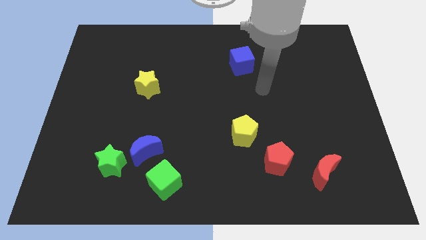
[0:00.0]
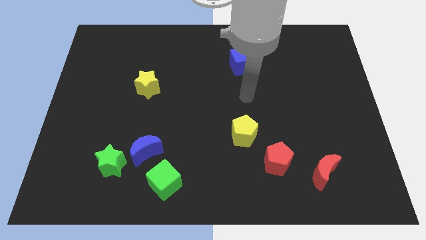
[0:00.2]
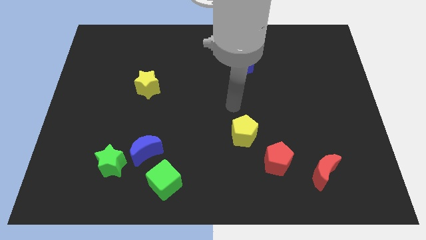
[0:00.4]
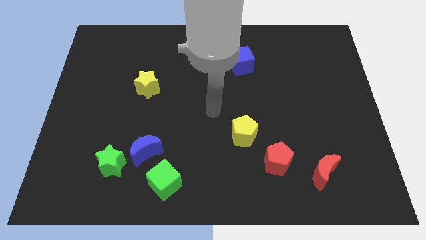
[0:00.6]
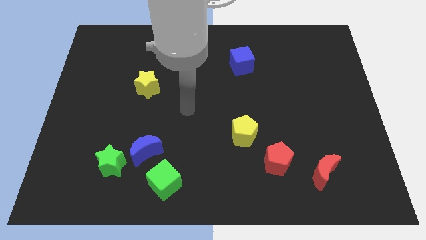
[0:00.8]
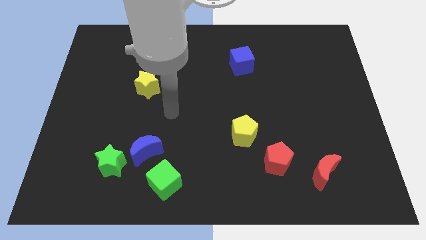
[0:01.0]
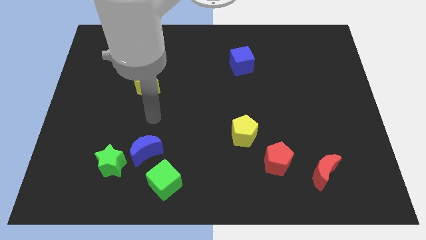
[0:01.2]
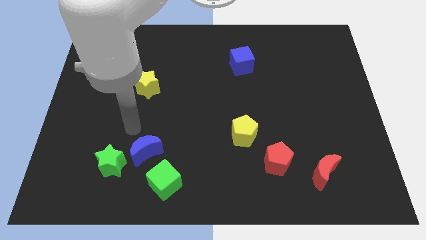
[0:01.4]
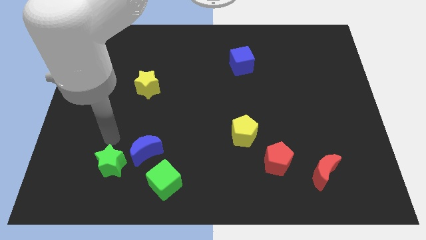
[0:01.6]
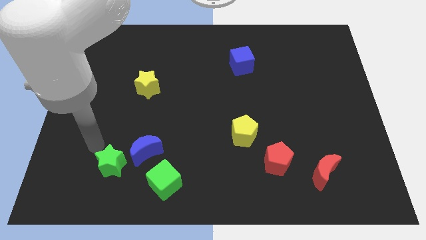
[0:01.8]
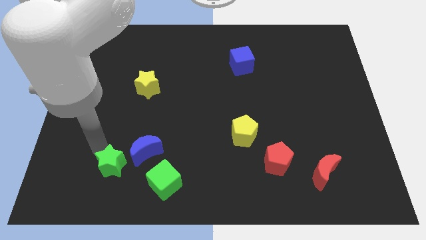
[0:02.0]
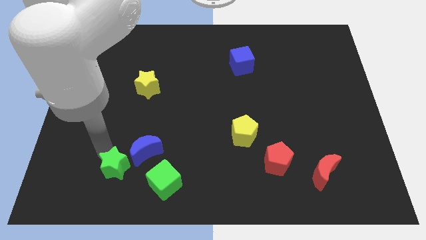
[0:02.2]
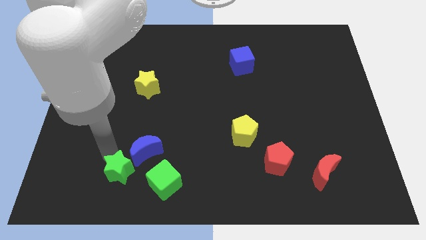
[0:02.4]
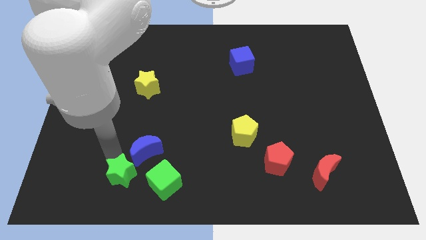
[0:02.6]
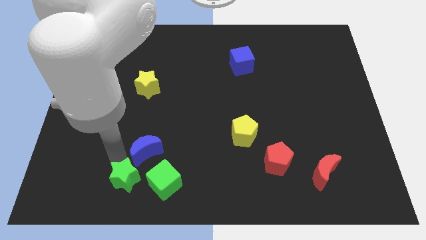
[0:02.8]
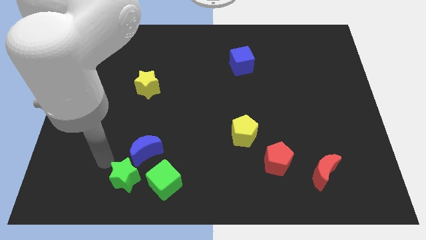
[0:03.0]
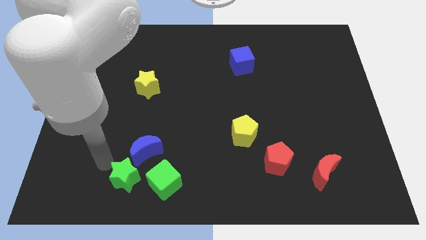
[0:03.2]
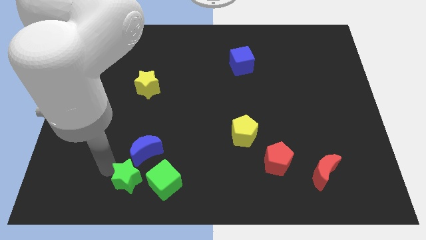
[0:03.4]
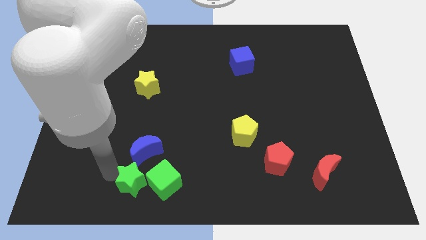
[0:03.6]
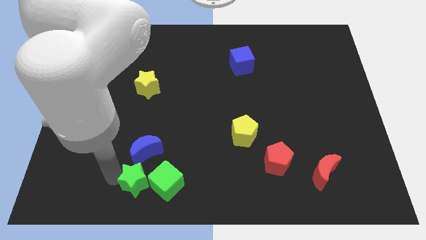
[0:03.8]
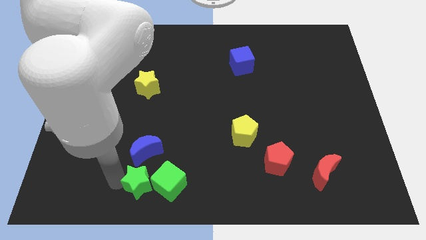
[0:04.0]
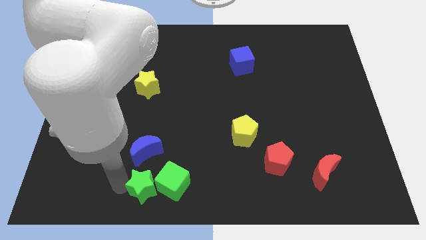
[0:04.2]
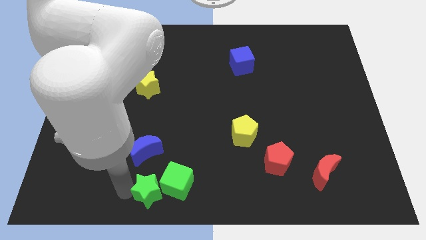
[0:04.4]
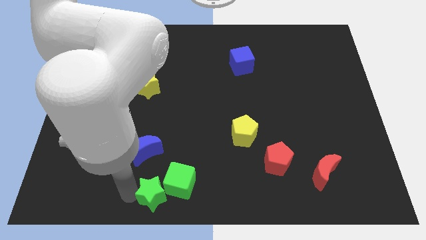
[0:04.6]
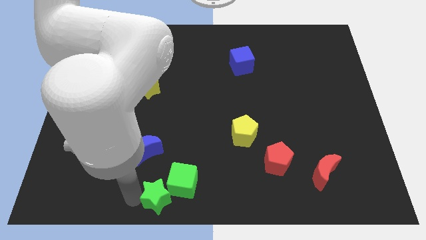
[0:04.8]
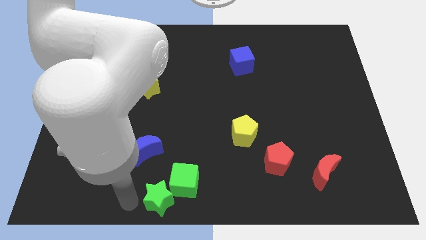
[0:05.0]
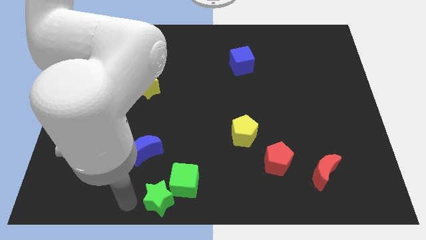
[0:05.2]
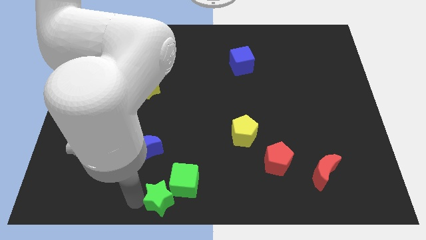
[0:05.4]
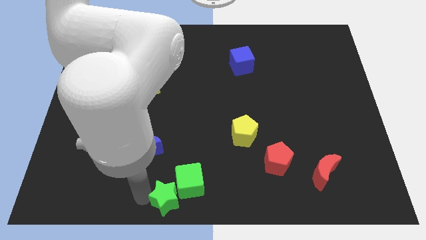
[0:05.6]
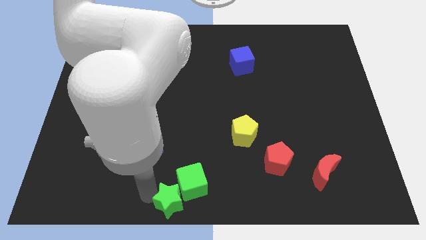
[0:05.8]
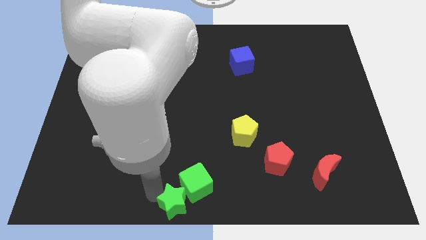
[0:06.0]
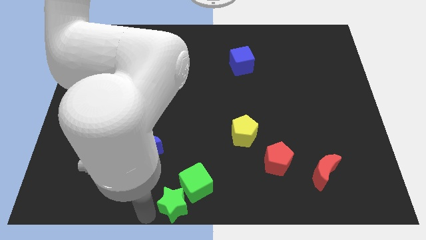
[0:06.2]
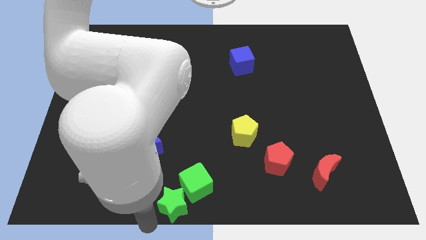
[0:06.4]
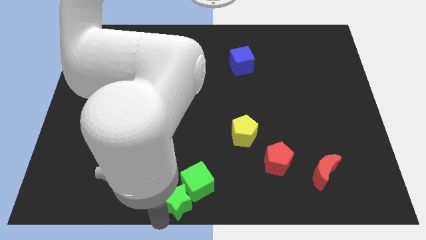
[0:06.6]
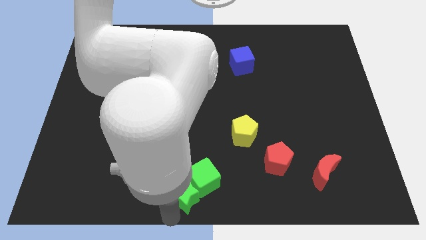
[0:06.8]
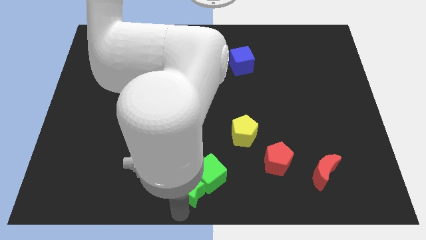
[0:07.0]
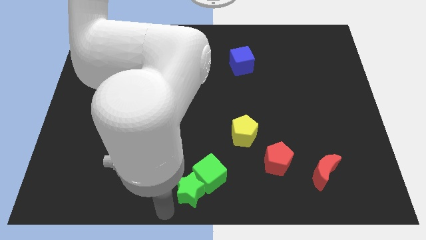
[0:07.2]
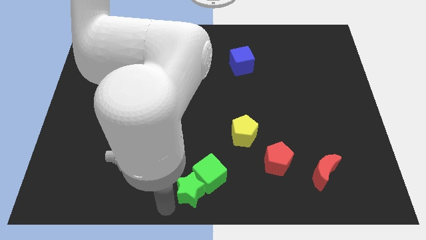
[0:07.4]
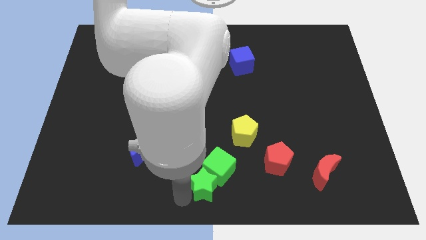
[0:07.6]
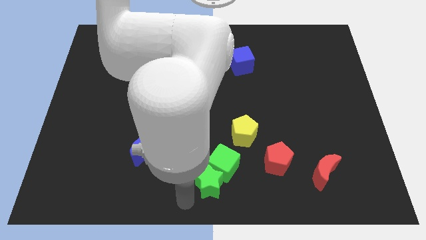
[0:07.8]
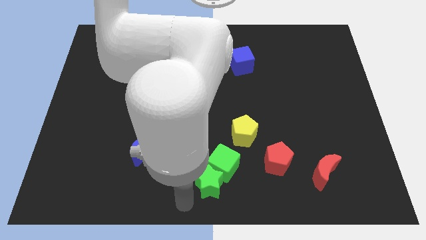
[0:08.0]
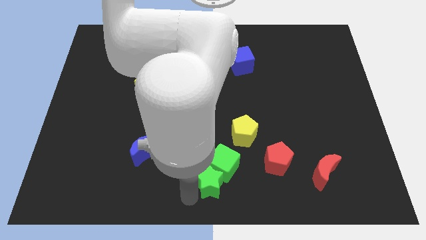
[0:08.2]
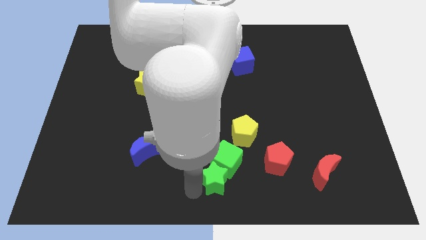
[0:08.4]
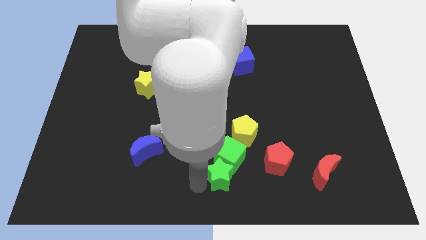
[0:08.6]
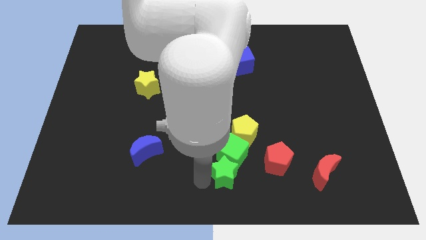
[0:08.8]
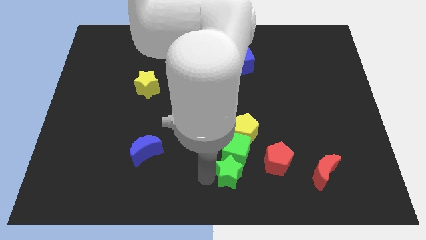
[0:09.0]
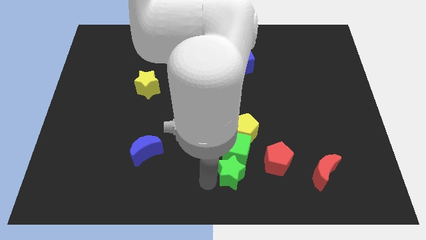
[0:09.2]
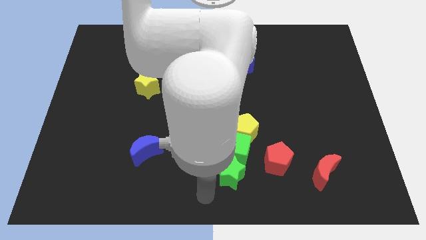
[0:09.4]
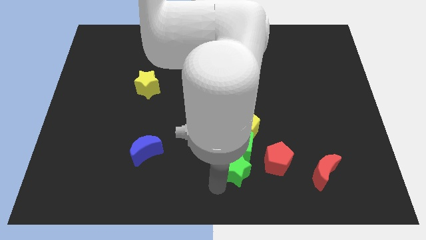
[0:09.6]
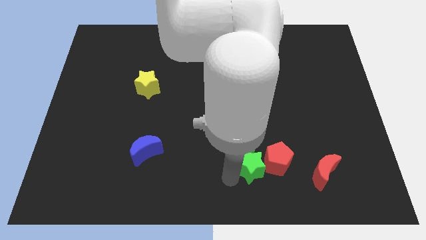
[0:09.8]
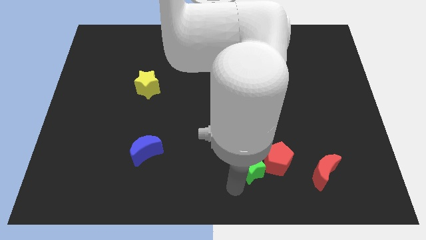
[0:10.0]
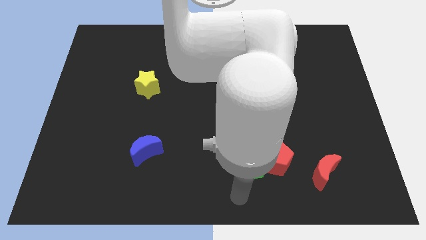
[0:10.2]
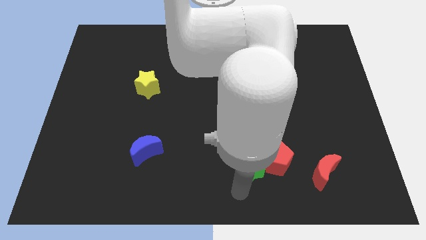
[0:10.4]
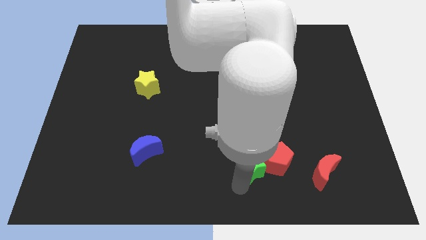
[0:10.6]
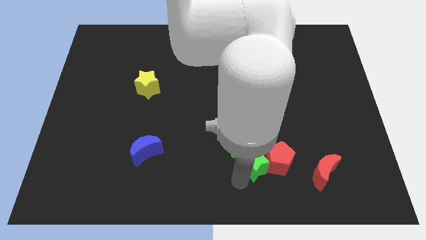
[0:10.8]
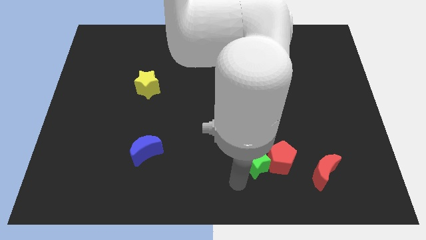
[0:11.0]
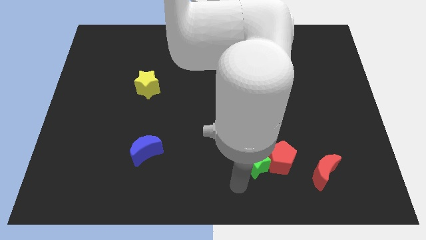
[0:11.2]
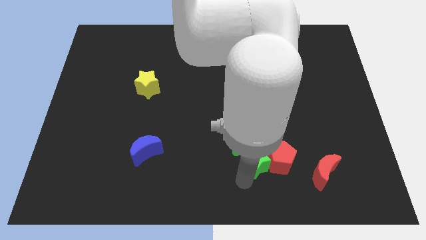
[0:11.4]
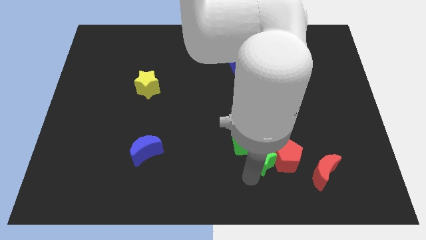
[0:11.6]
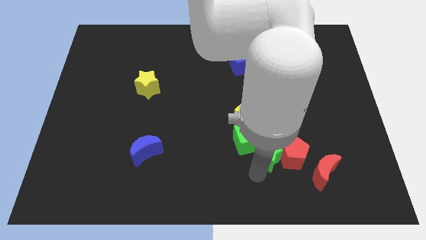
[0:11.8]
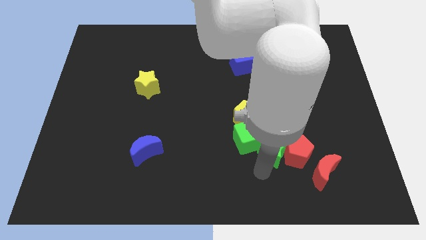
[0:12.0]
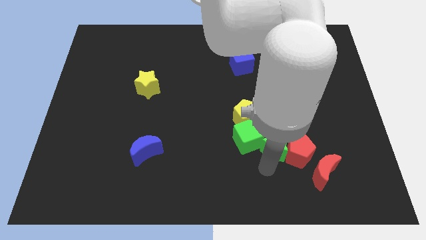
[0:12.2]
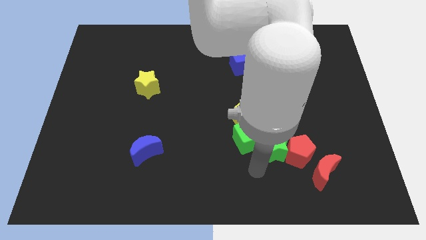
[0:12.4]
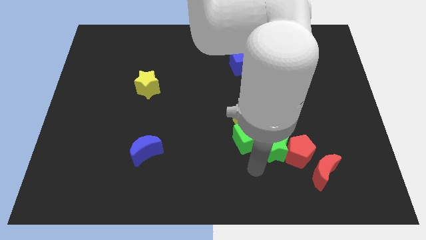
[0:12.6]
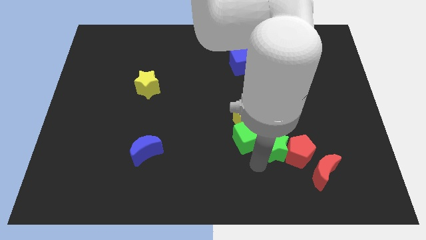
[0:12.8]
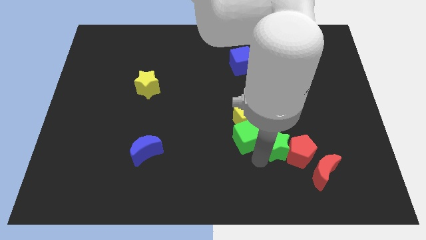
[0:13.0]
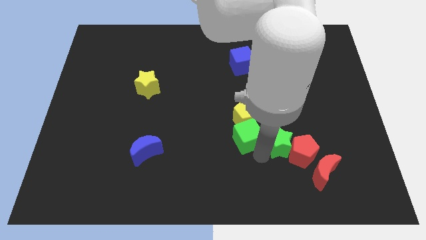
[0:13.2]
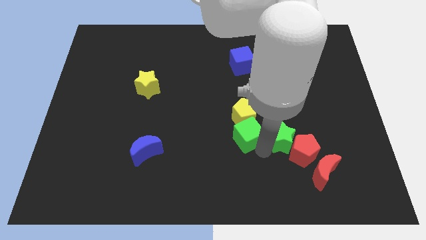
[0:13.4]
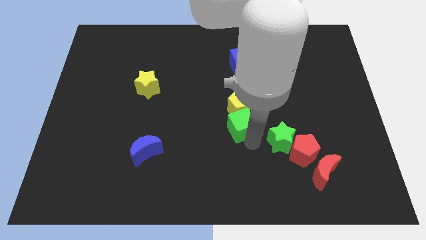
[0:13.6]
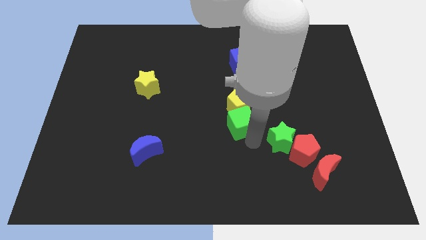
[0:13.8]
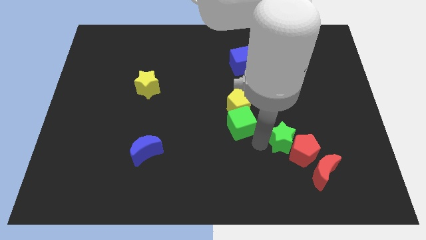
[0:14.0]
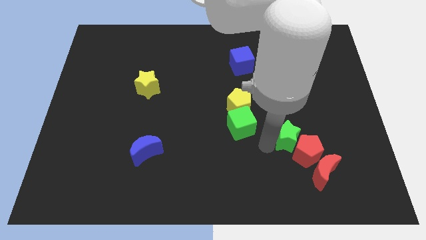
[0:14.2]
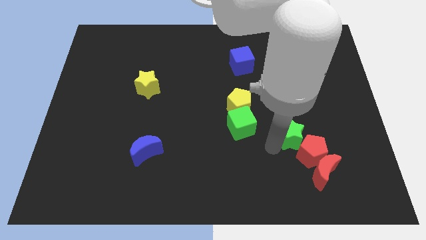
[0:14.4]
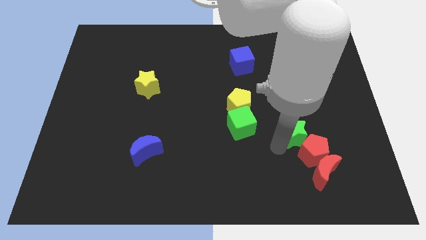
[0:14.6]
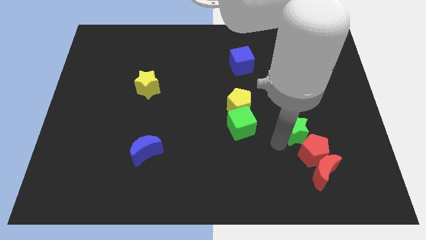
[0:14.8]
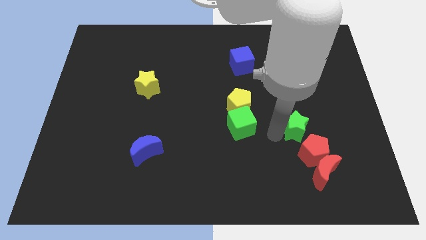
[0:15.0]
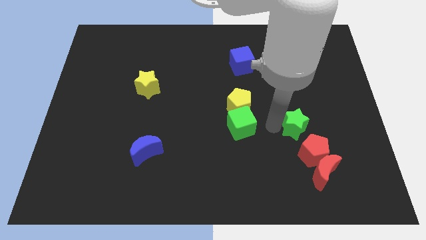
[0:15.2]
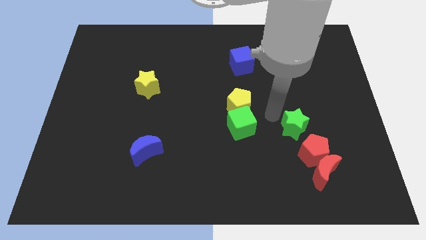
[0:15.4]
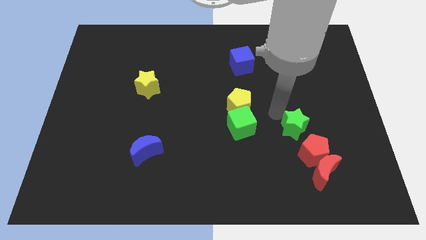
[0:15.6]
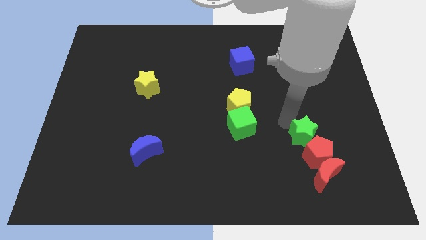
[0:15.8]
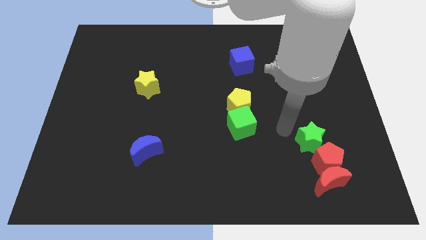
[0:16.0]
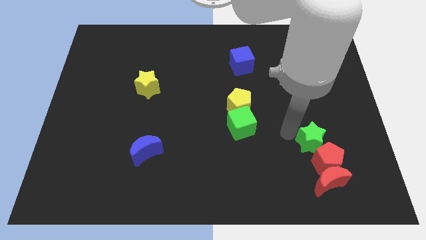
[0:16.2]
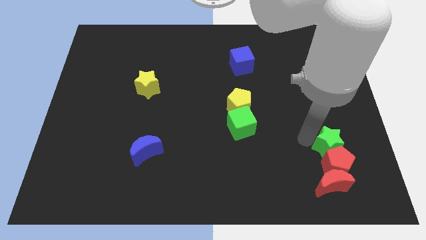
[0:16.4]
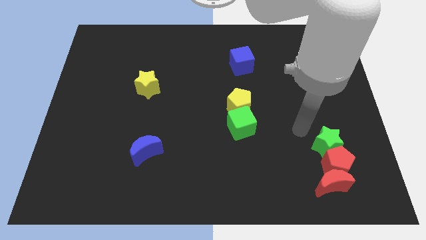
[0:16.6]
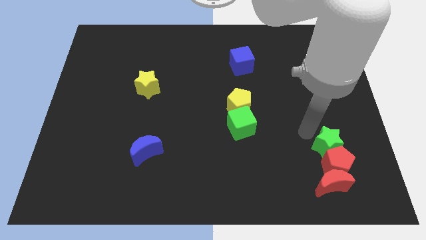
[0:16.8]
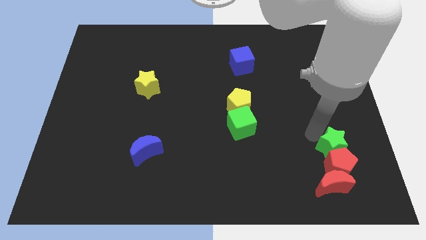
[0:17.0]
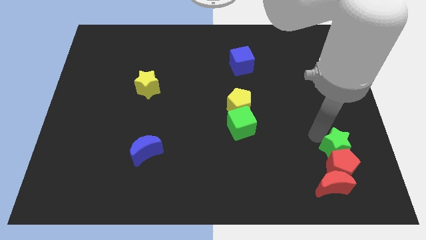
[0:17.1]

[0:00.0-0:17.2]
slide the green star to the top right side of the red moon
